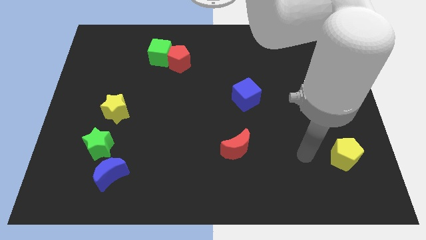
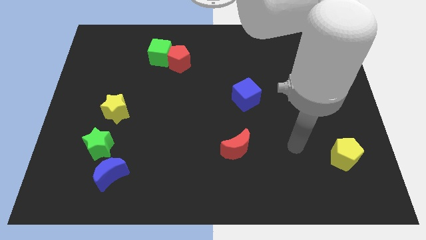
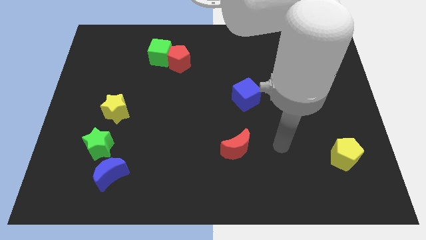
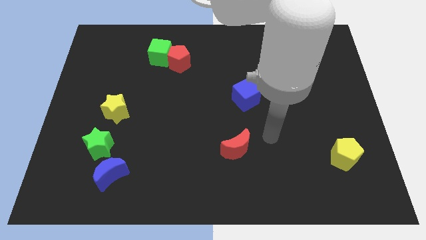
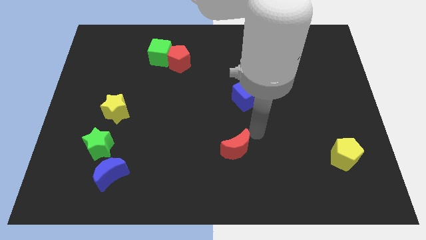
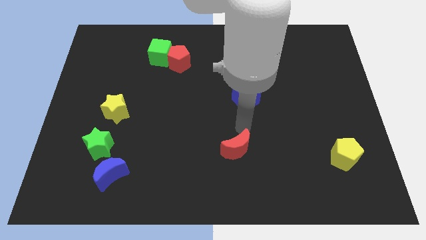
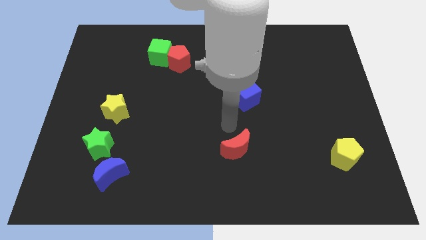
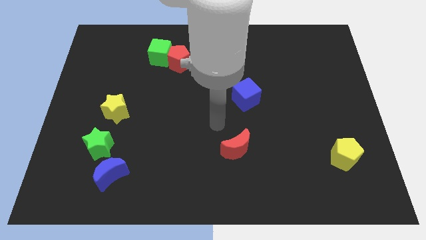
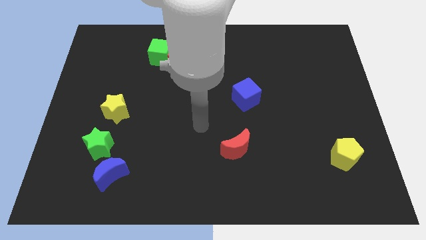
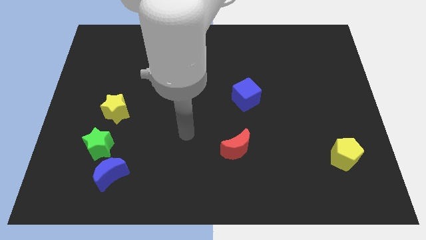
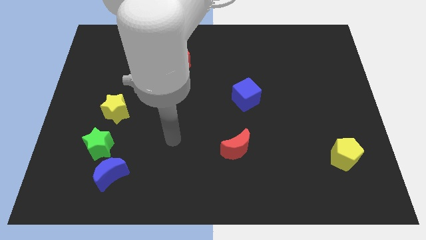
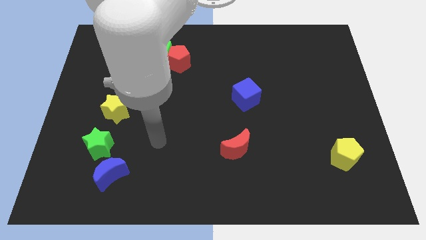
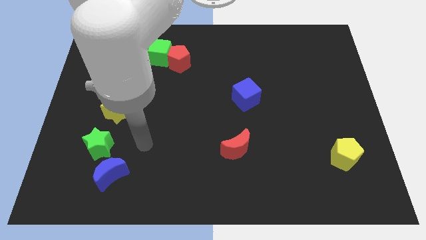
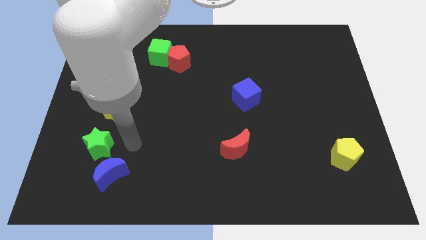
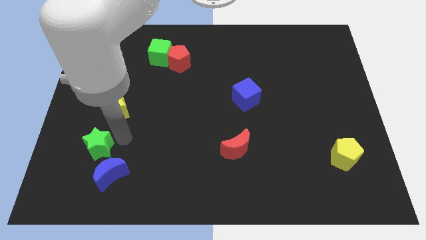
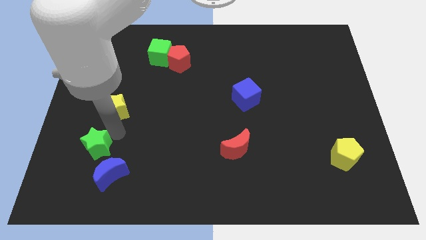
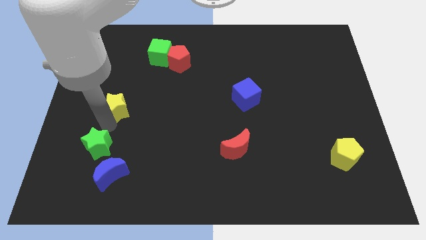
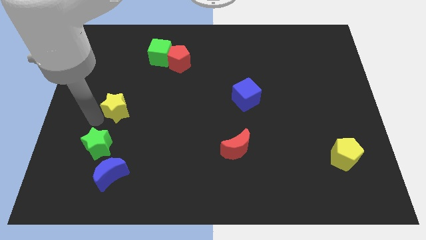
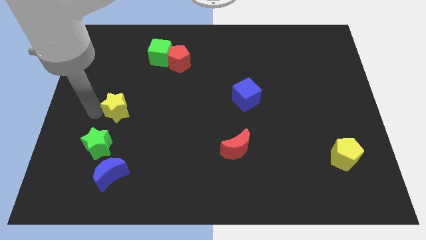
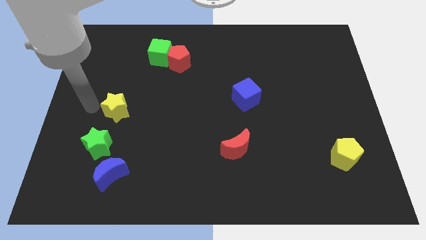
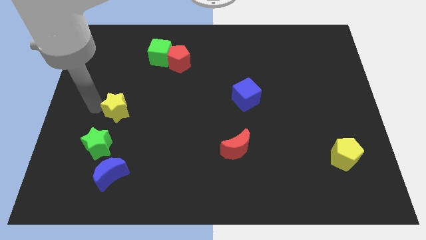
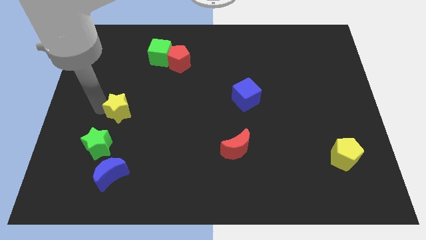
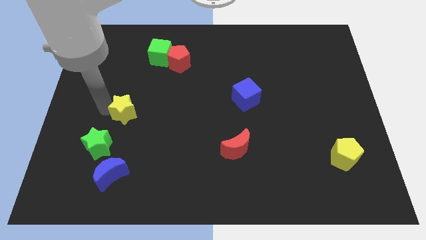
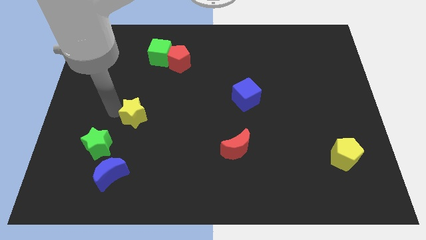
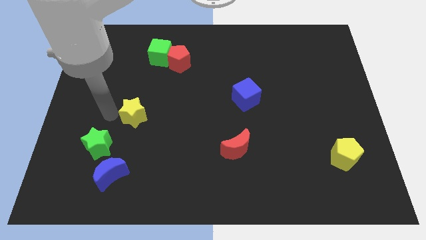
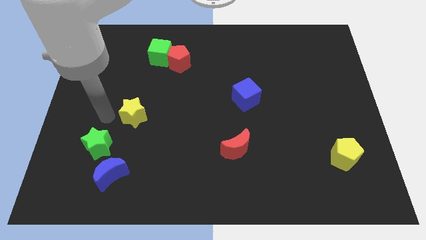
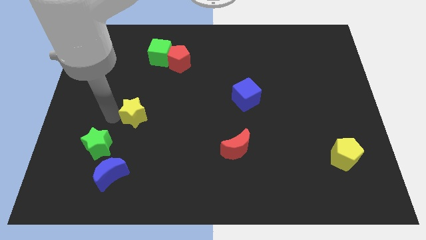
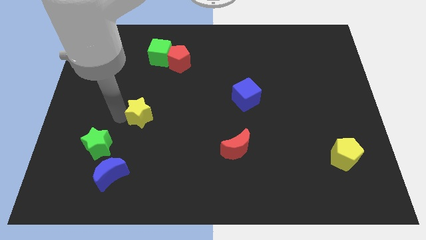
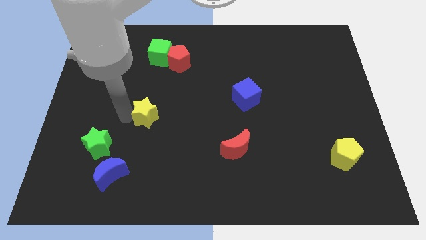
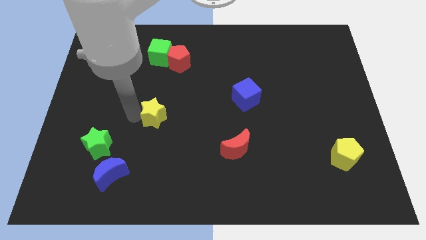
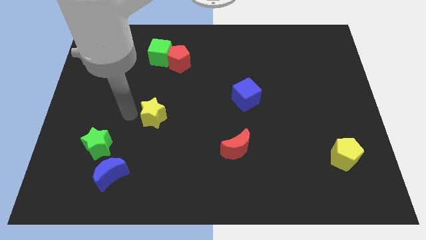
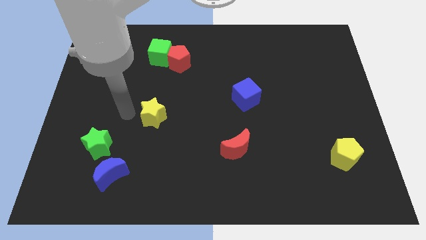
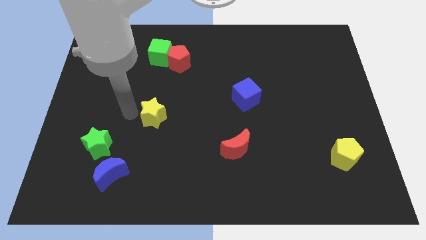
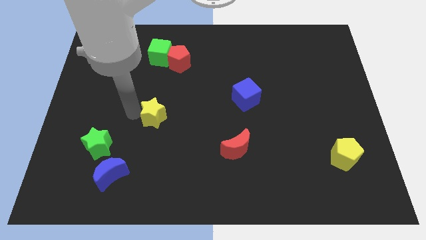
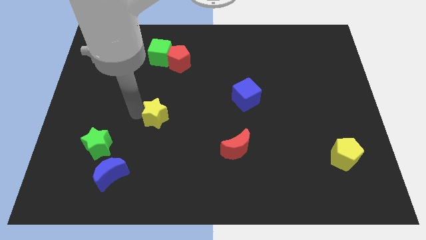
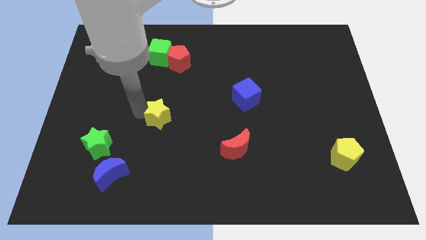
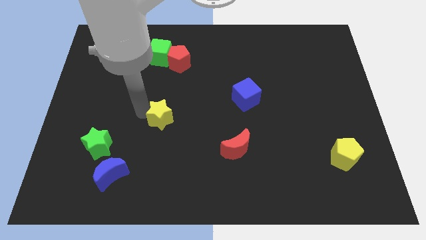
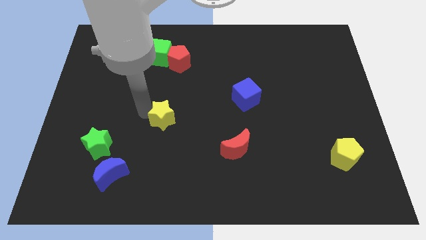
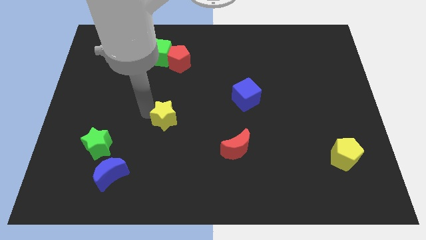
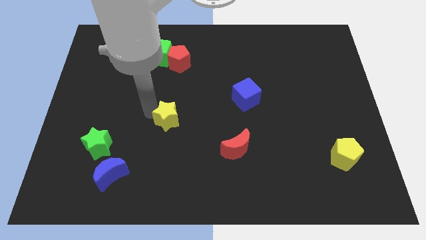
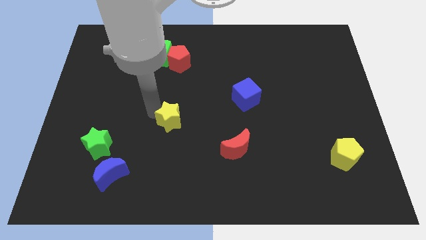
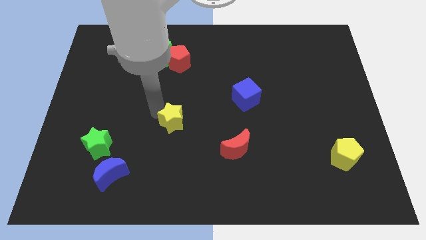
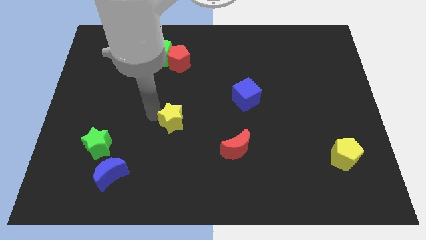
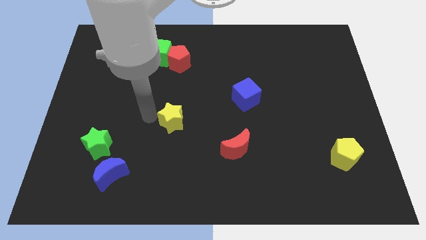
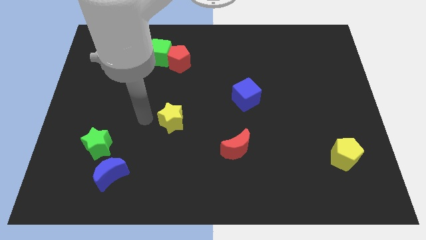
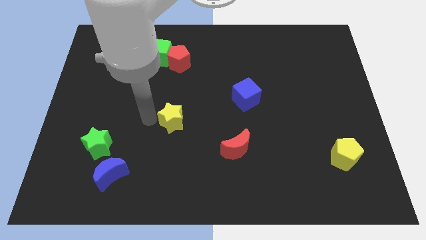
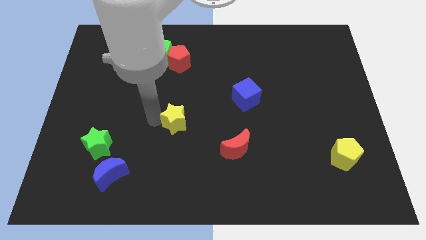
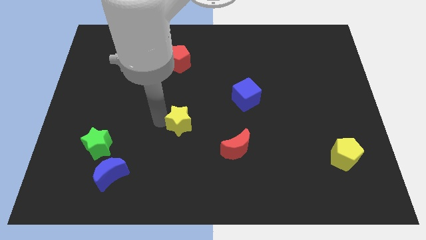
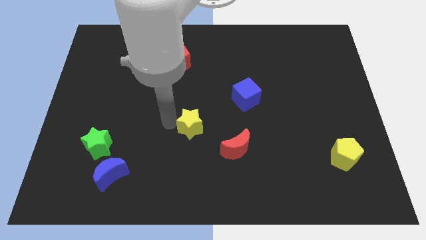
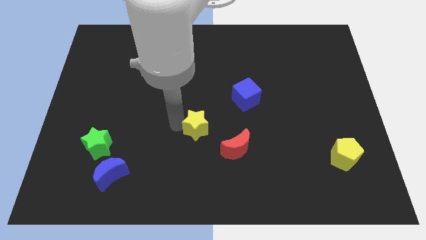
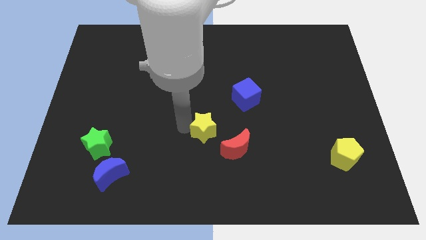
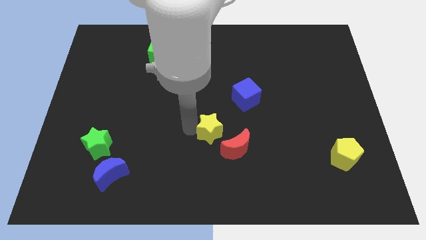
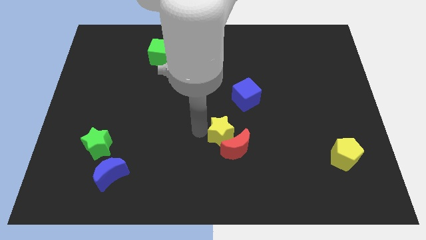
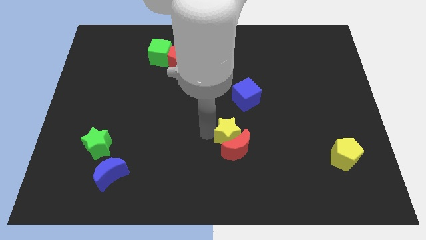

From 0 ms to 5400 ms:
push the yellow star to the bottom of the blue cube

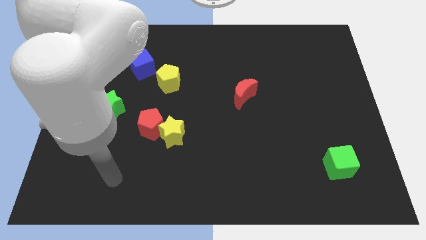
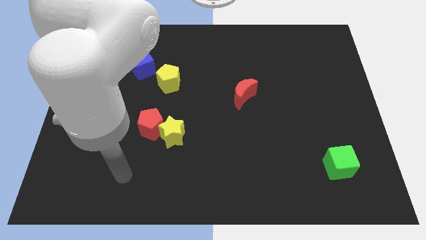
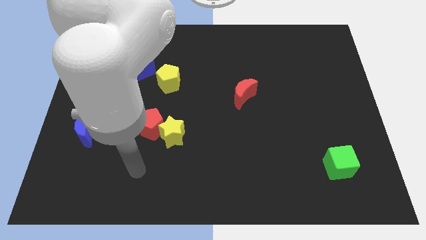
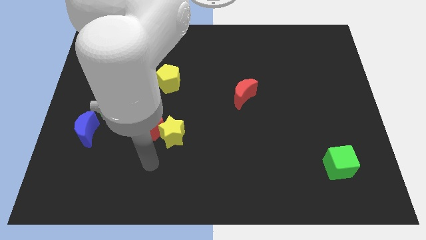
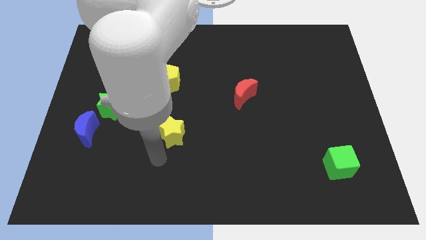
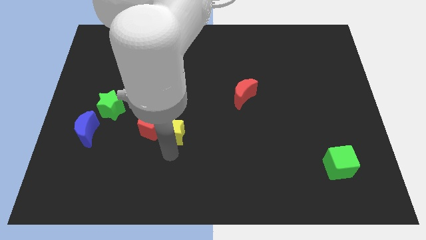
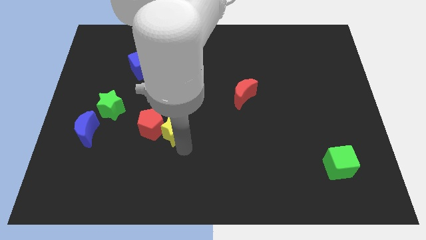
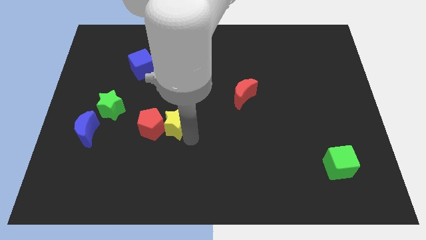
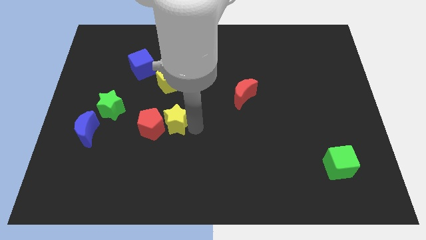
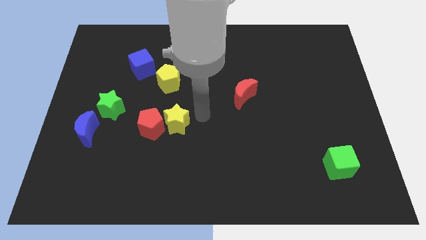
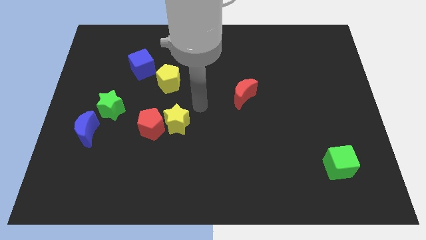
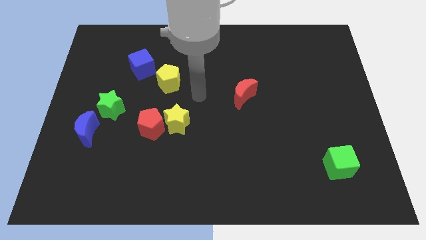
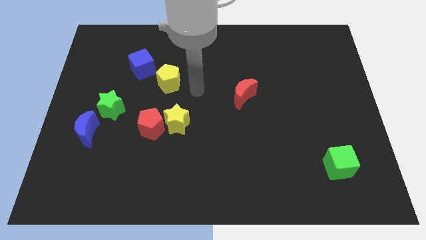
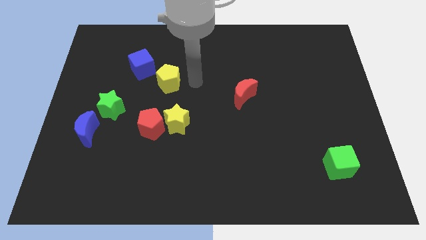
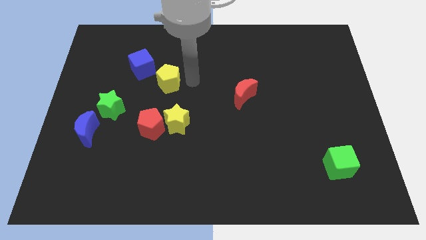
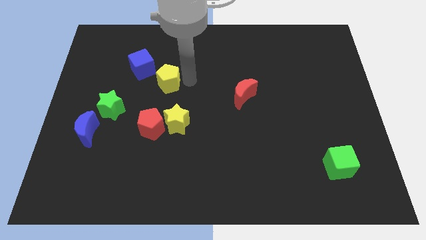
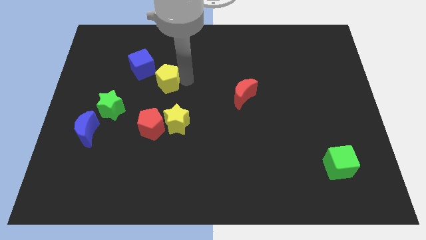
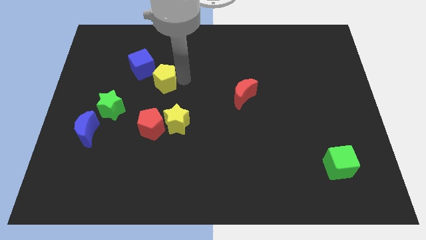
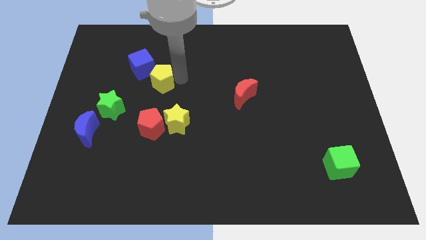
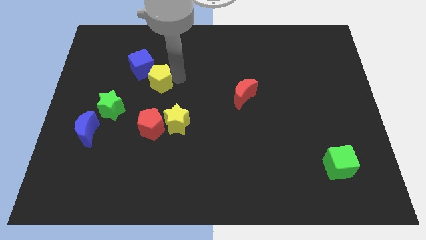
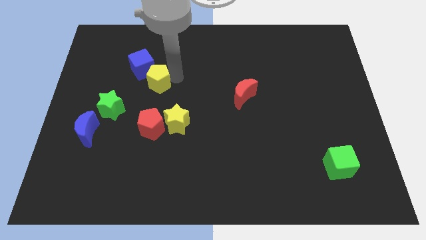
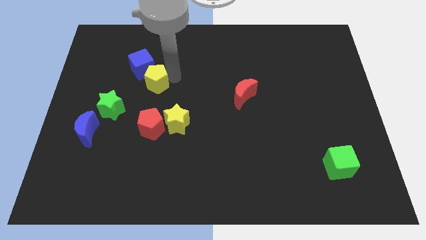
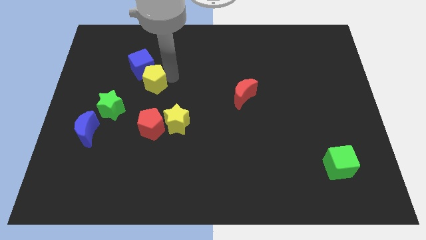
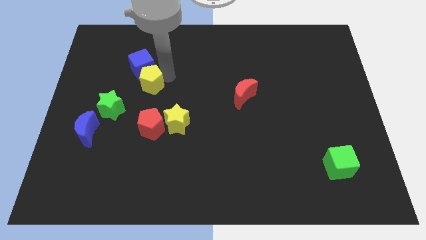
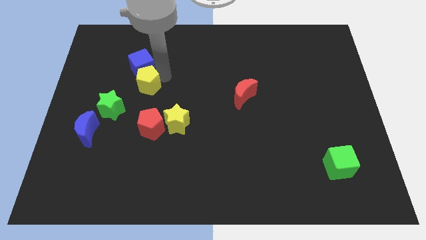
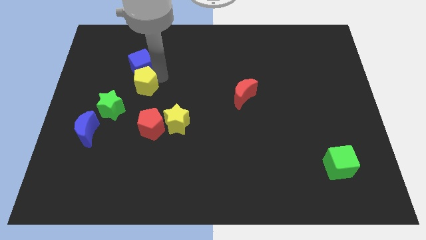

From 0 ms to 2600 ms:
move the yellow pentagon to the bottom left of the blue cube
